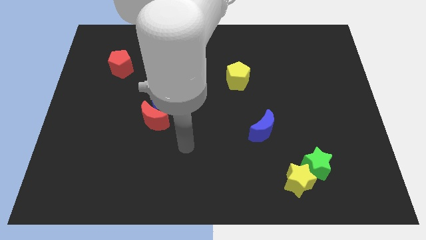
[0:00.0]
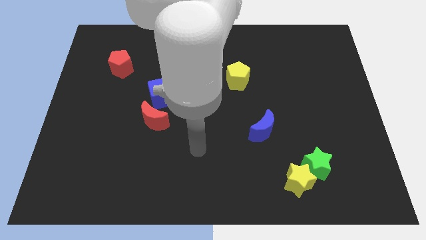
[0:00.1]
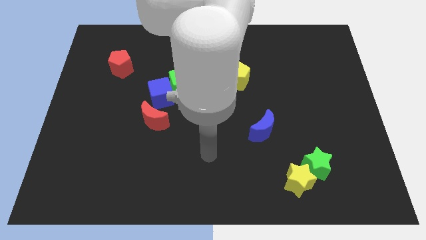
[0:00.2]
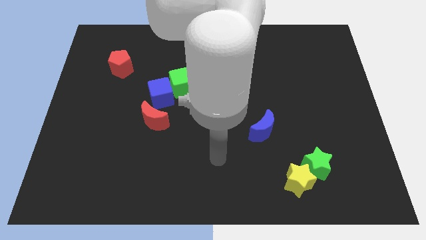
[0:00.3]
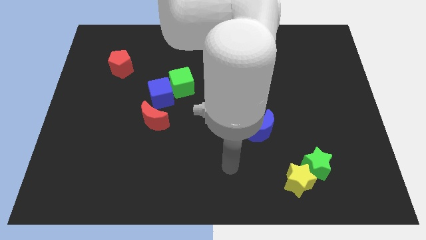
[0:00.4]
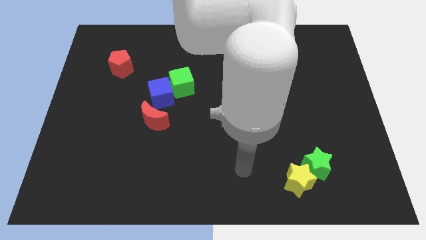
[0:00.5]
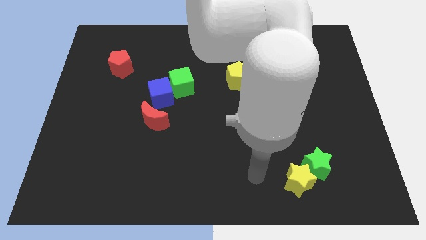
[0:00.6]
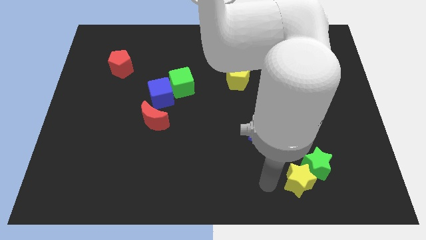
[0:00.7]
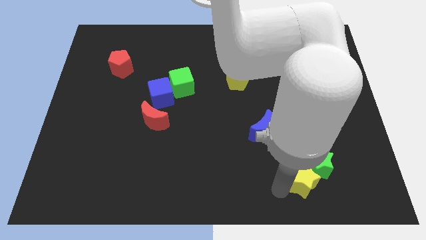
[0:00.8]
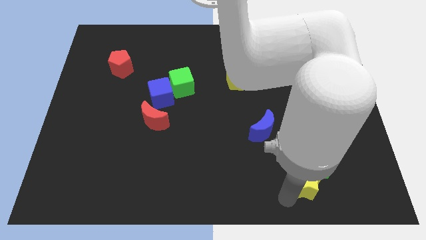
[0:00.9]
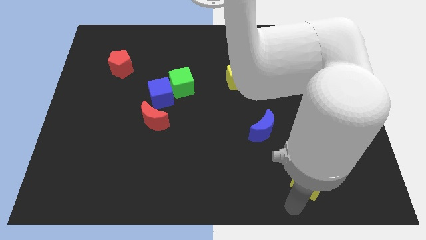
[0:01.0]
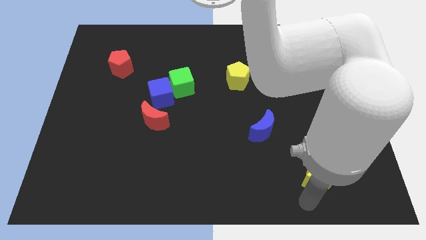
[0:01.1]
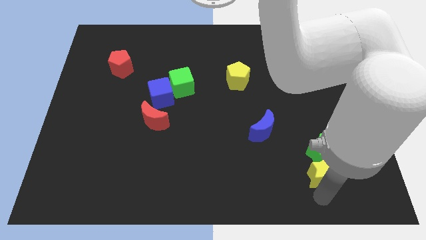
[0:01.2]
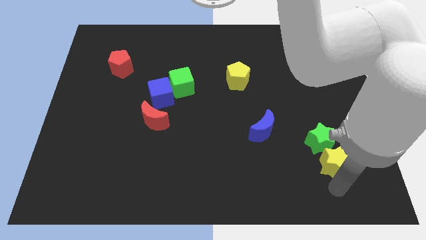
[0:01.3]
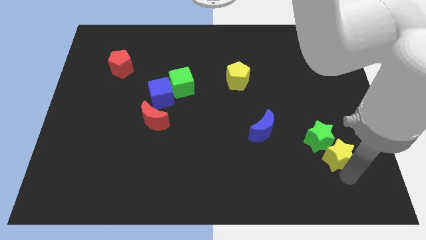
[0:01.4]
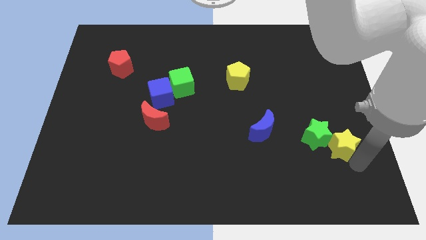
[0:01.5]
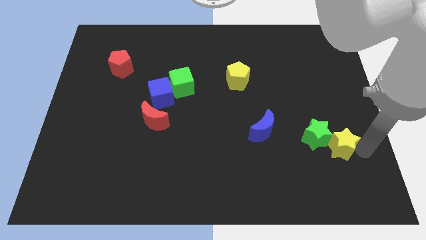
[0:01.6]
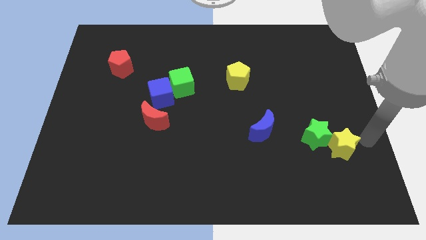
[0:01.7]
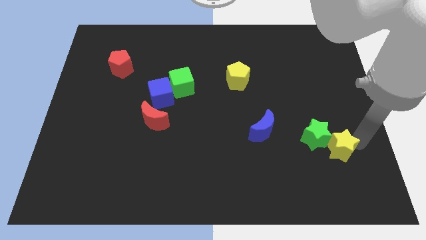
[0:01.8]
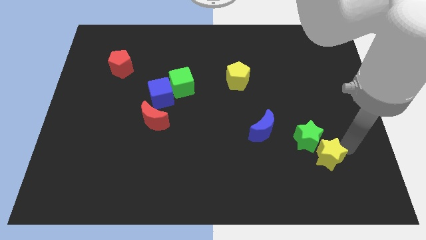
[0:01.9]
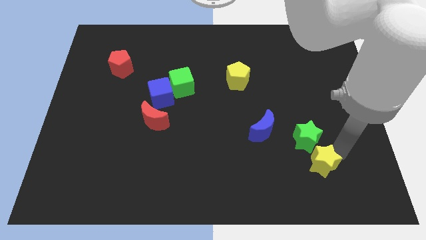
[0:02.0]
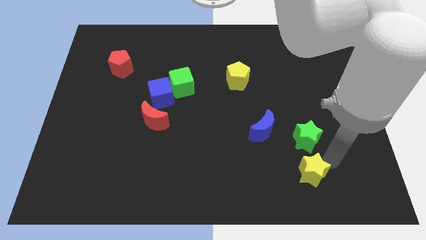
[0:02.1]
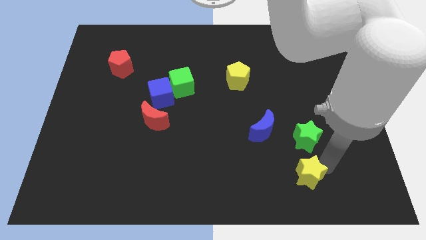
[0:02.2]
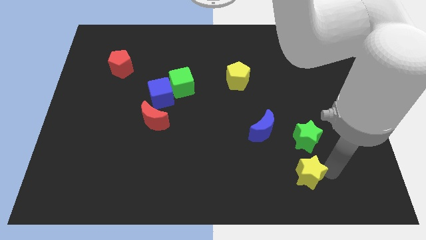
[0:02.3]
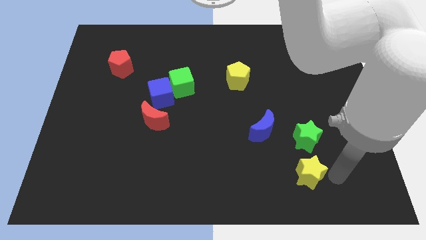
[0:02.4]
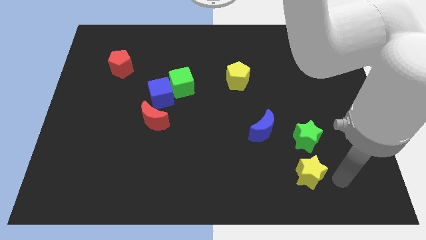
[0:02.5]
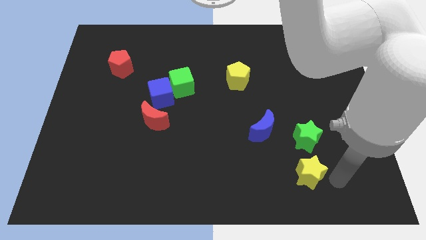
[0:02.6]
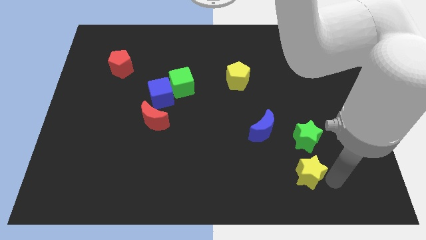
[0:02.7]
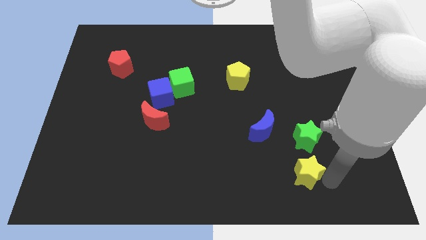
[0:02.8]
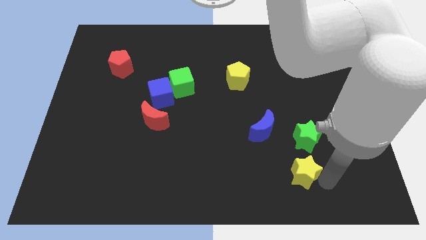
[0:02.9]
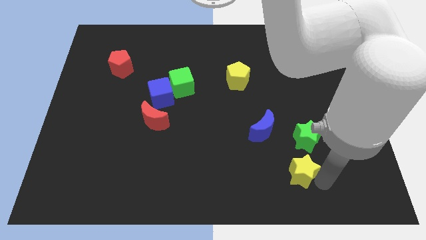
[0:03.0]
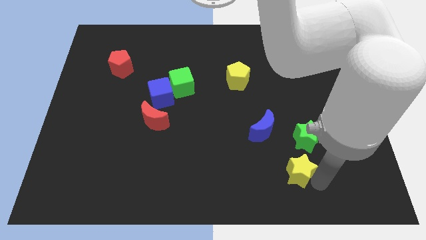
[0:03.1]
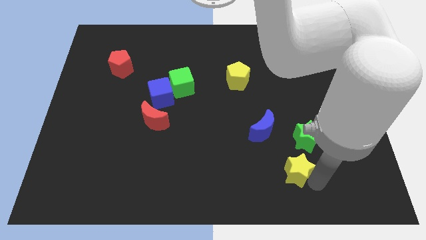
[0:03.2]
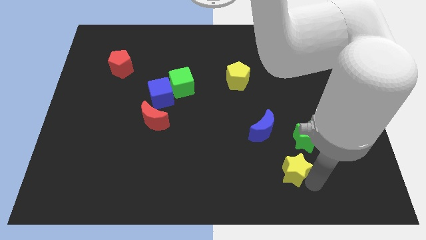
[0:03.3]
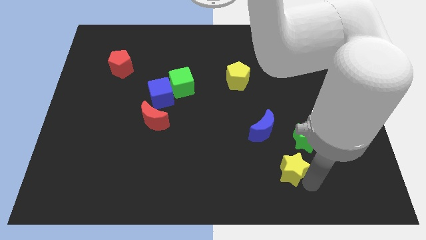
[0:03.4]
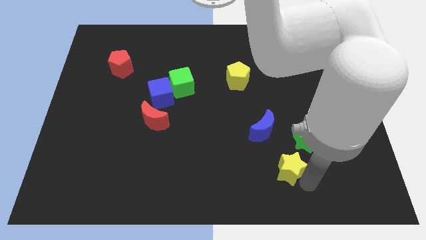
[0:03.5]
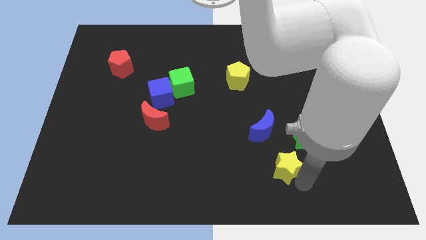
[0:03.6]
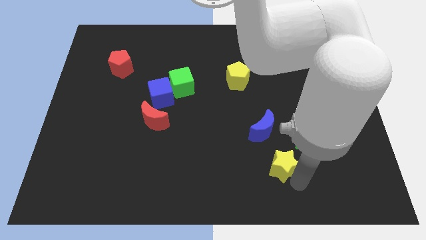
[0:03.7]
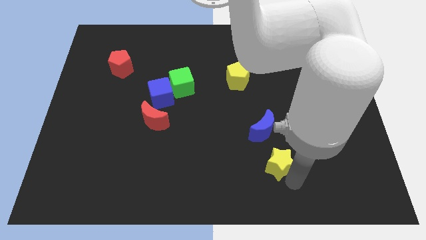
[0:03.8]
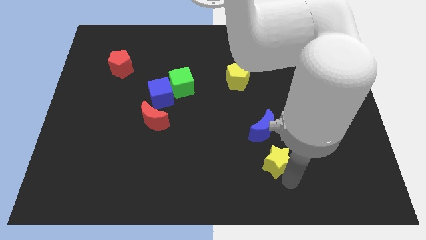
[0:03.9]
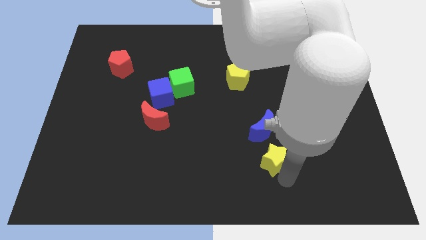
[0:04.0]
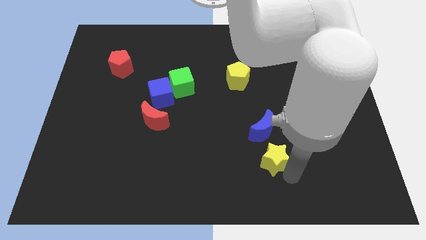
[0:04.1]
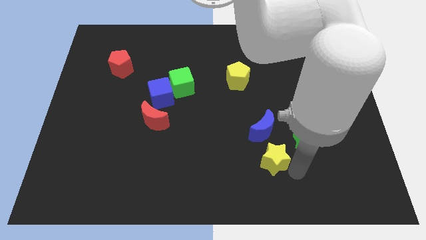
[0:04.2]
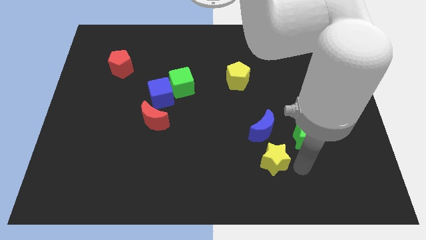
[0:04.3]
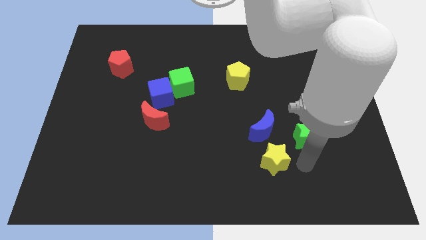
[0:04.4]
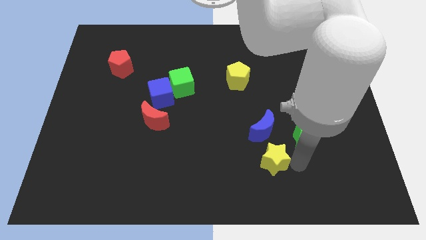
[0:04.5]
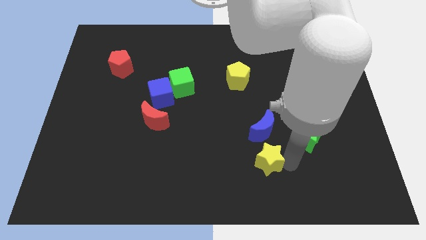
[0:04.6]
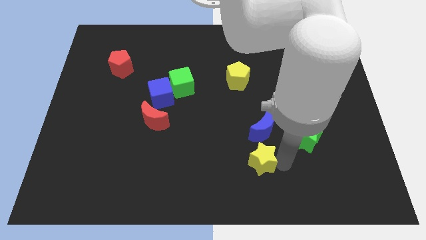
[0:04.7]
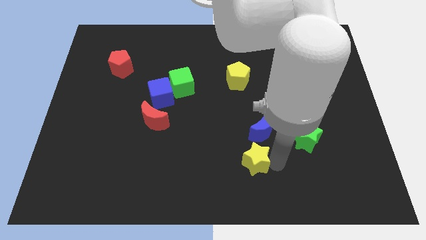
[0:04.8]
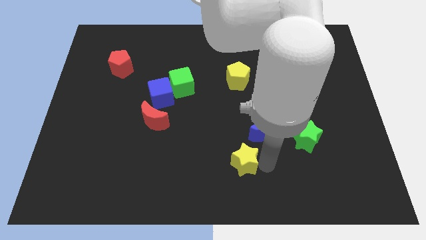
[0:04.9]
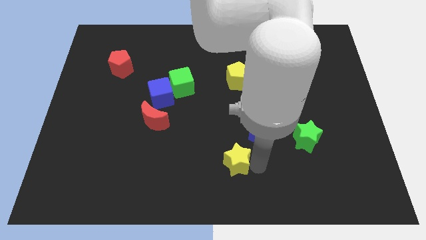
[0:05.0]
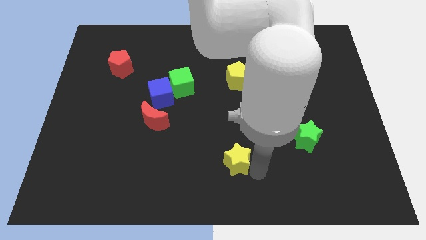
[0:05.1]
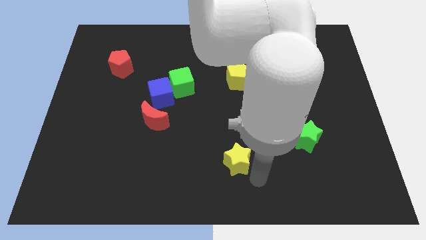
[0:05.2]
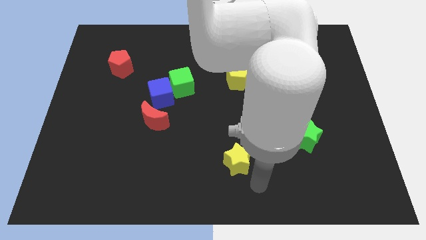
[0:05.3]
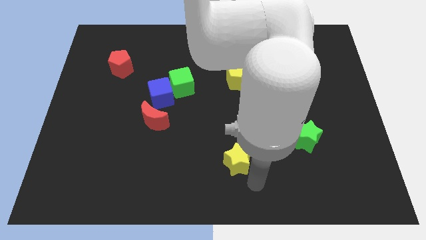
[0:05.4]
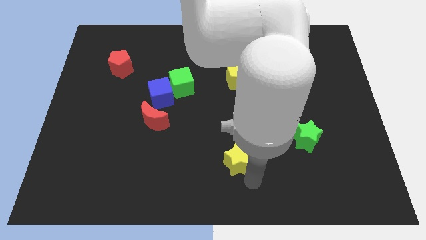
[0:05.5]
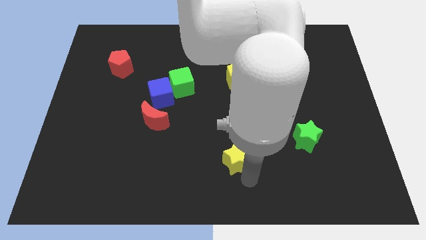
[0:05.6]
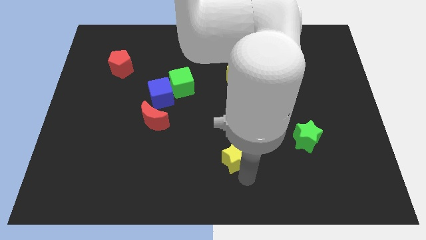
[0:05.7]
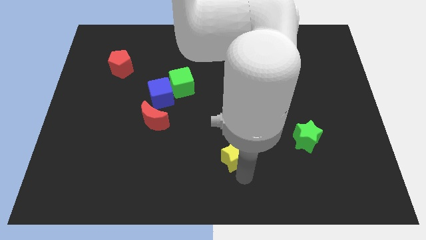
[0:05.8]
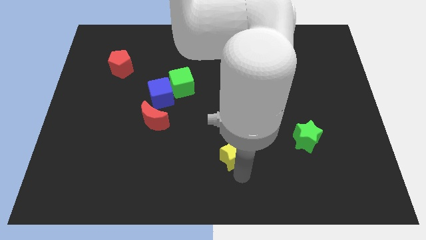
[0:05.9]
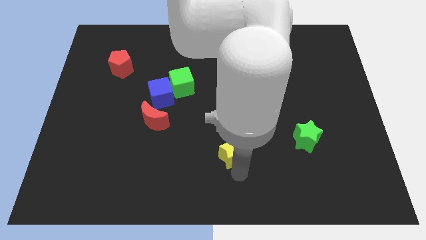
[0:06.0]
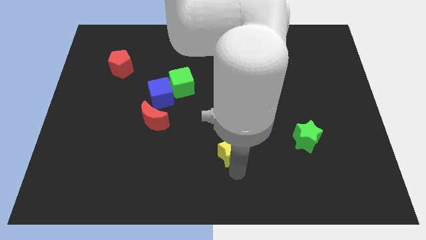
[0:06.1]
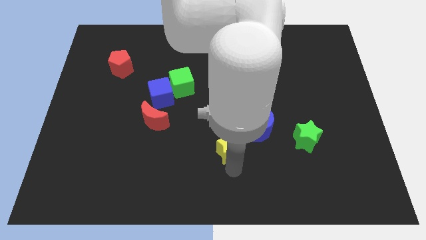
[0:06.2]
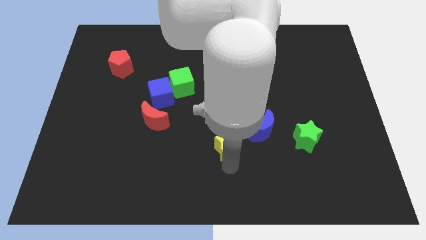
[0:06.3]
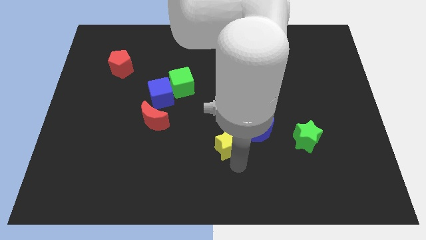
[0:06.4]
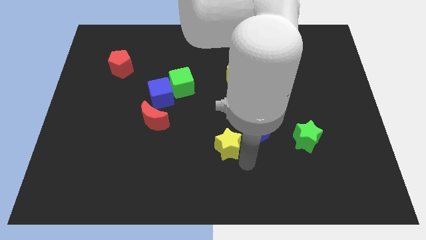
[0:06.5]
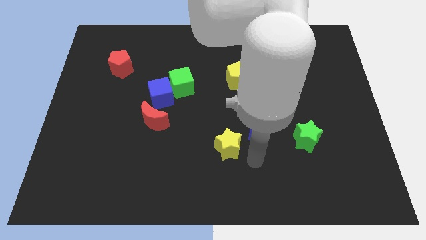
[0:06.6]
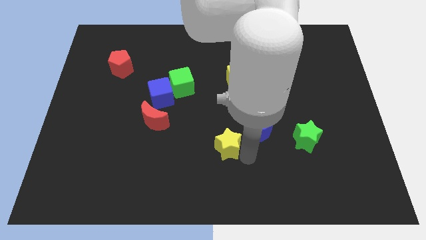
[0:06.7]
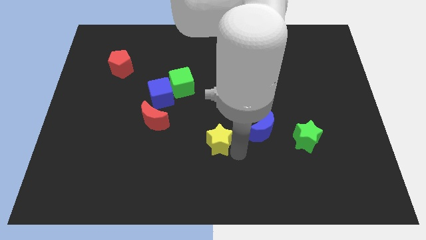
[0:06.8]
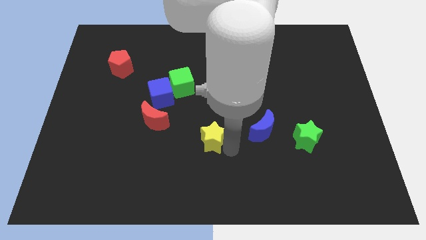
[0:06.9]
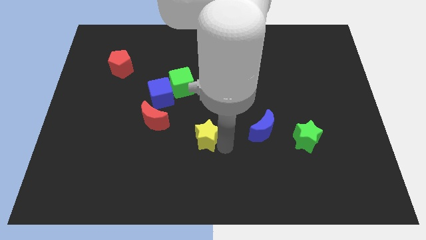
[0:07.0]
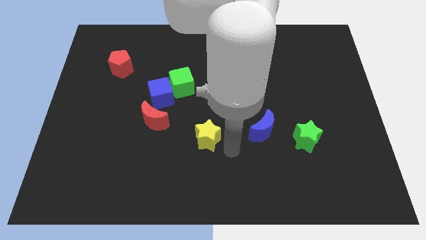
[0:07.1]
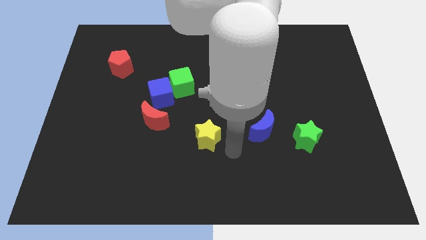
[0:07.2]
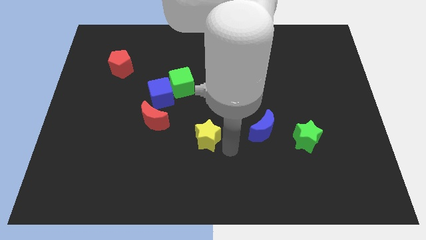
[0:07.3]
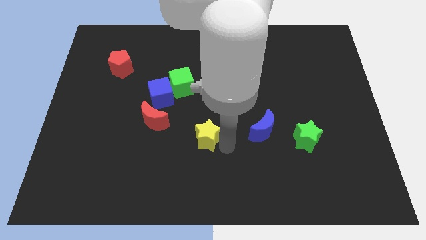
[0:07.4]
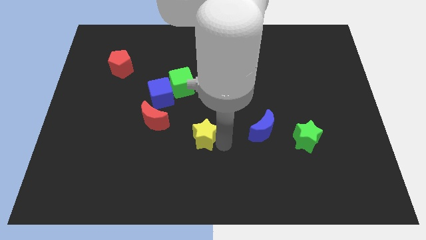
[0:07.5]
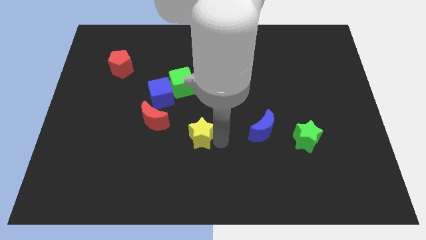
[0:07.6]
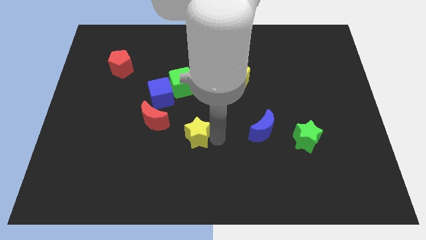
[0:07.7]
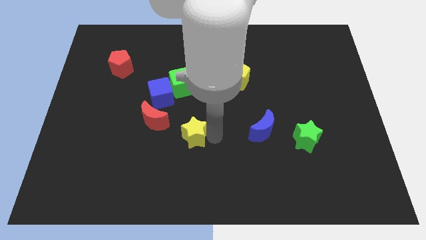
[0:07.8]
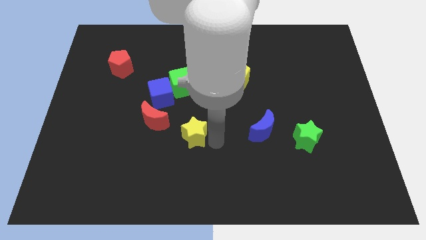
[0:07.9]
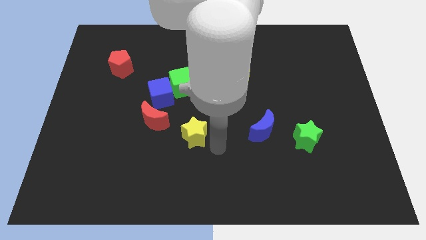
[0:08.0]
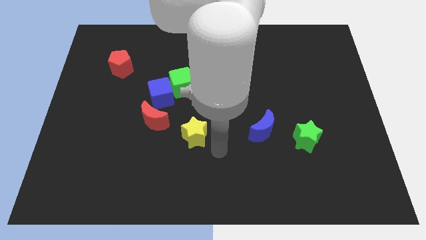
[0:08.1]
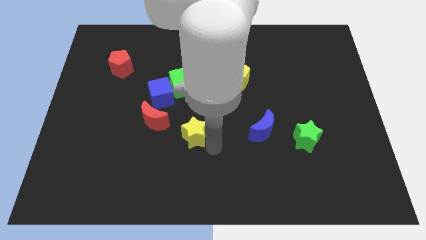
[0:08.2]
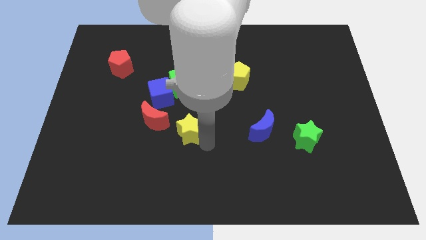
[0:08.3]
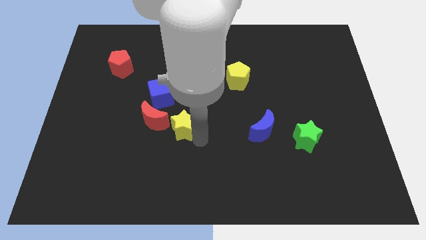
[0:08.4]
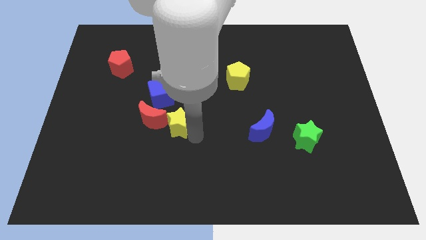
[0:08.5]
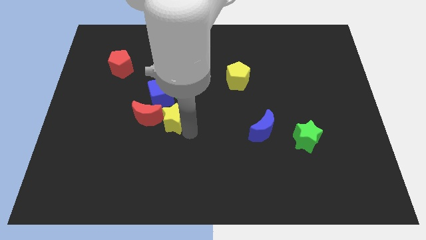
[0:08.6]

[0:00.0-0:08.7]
slide the yellow star close to the red moon
